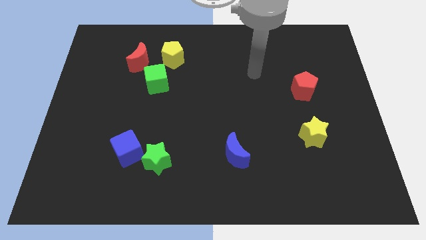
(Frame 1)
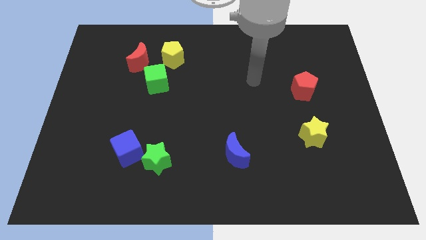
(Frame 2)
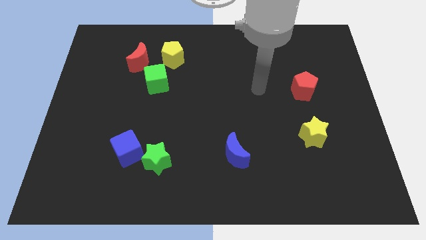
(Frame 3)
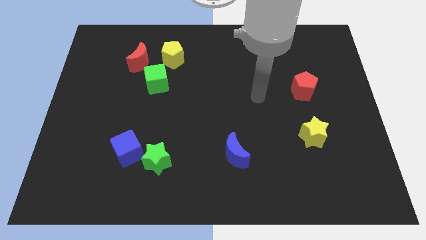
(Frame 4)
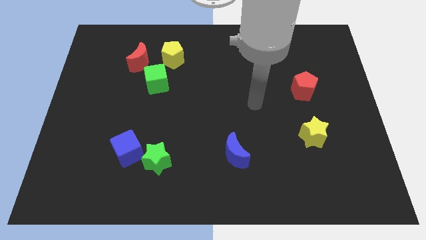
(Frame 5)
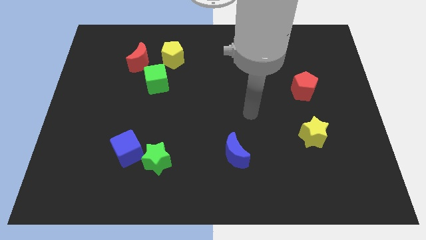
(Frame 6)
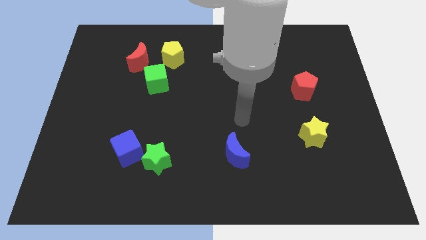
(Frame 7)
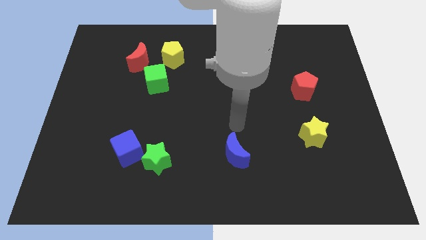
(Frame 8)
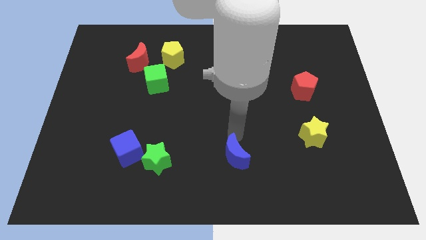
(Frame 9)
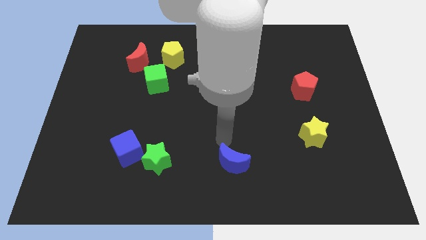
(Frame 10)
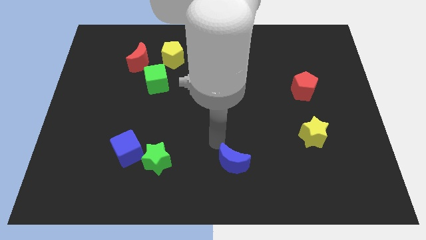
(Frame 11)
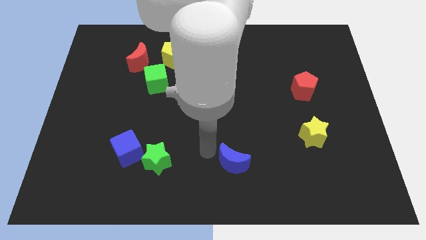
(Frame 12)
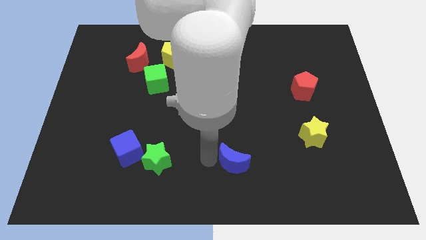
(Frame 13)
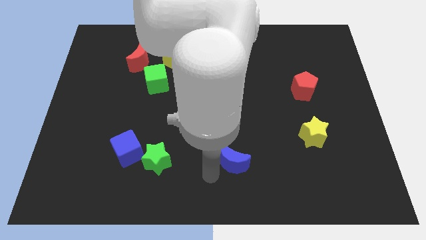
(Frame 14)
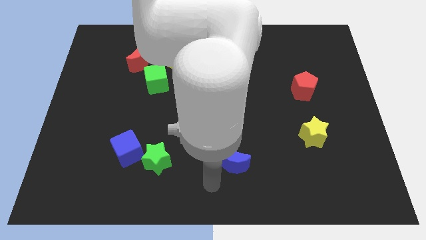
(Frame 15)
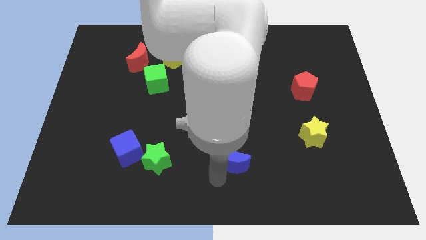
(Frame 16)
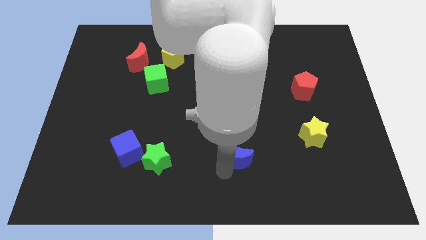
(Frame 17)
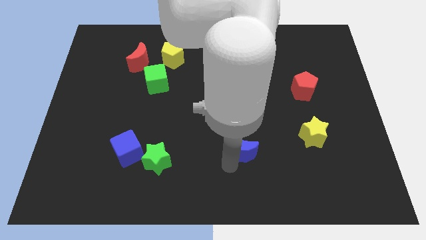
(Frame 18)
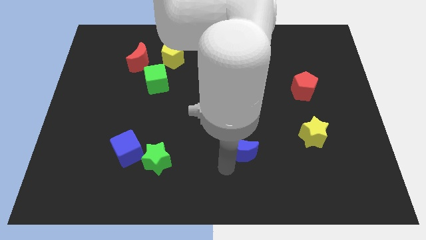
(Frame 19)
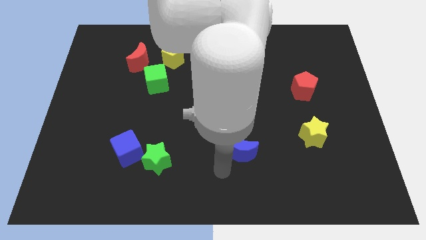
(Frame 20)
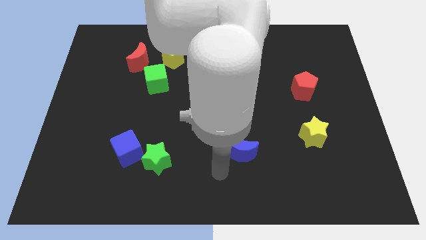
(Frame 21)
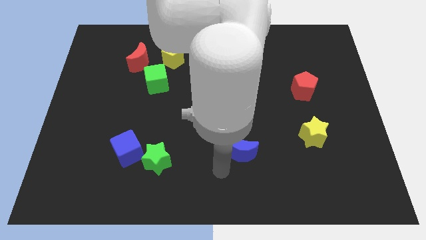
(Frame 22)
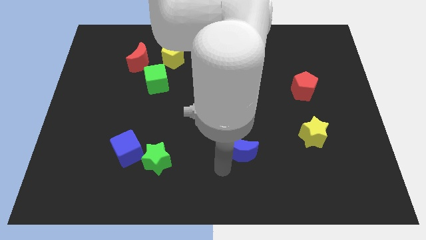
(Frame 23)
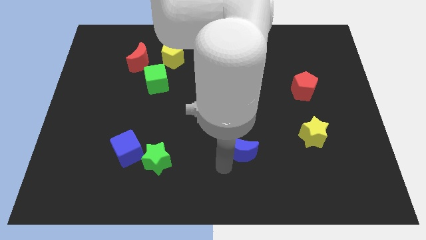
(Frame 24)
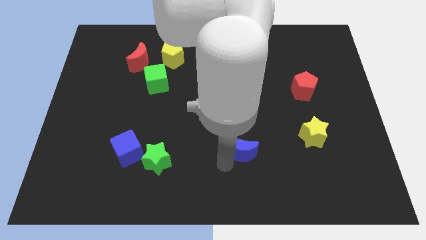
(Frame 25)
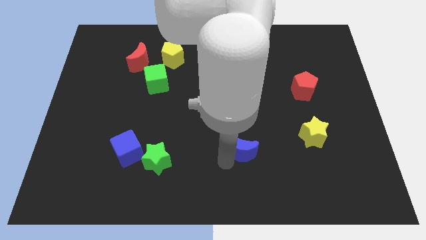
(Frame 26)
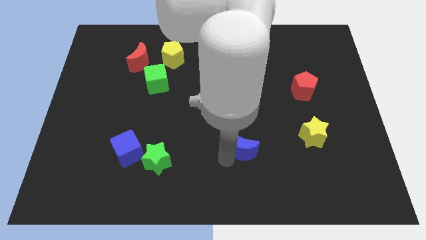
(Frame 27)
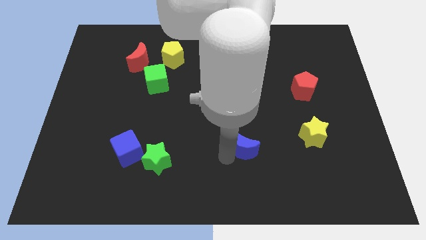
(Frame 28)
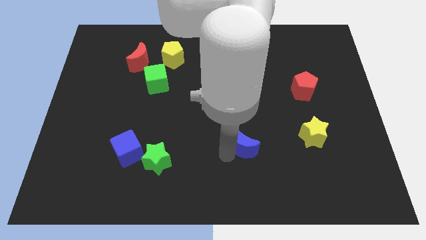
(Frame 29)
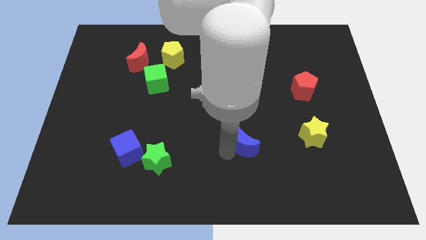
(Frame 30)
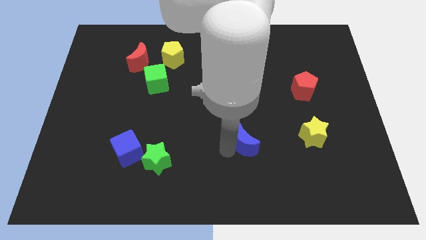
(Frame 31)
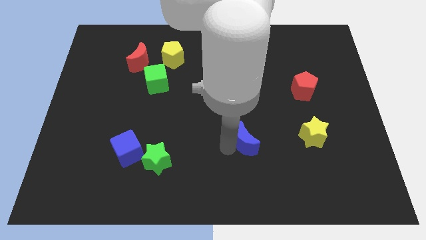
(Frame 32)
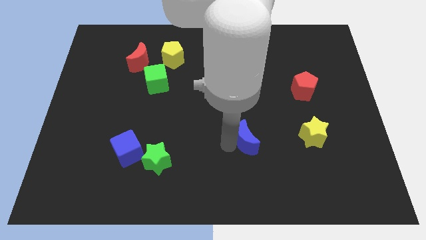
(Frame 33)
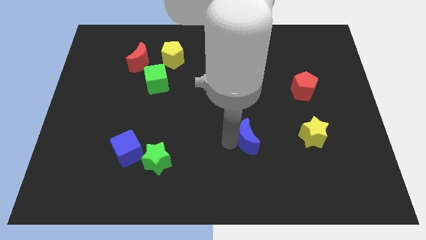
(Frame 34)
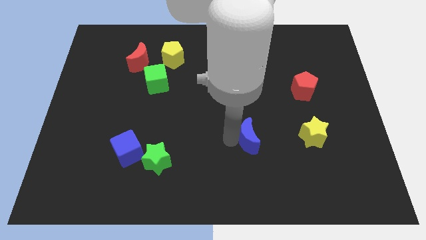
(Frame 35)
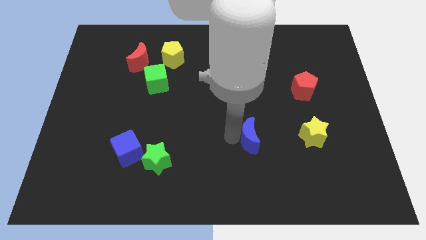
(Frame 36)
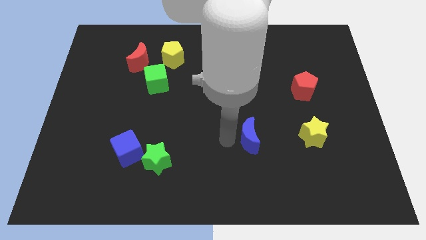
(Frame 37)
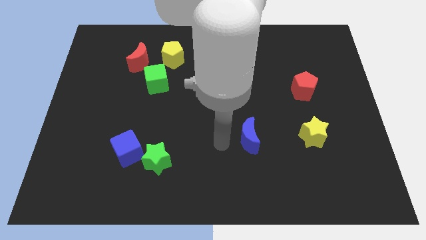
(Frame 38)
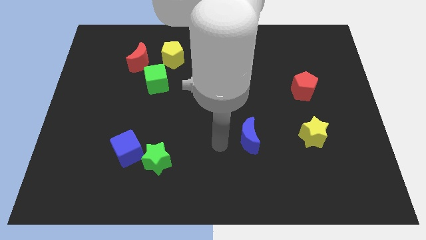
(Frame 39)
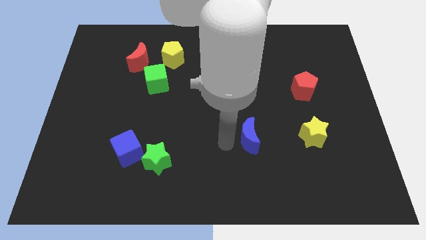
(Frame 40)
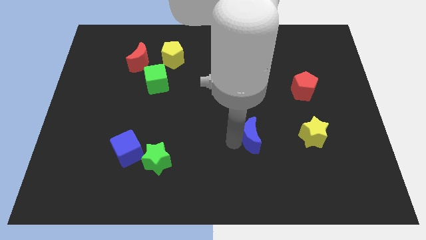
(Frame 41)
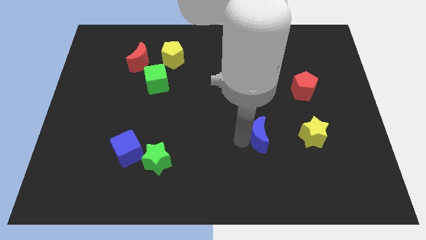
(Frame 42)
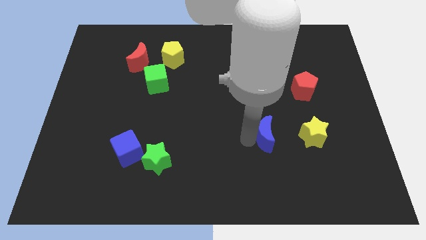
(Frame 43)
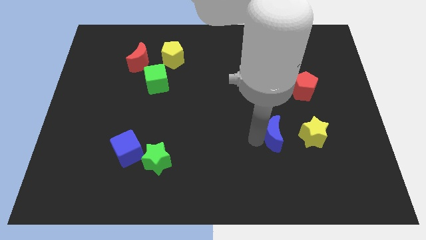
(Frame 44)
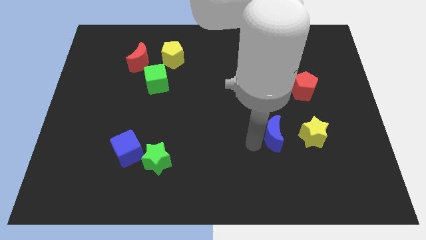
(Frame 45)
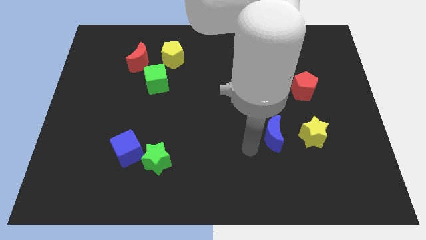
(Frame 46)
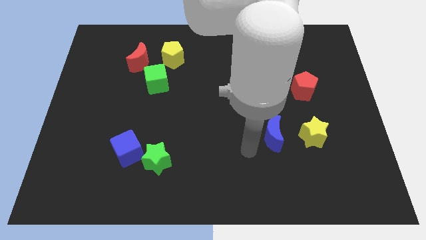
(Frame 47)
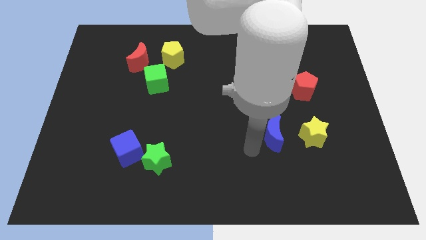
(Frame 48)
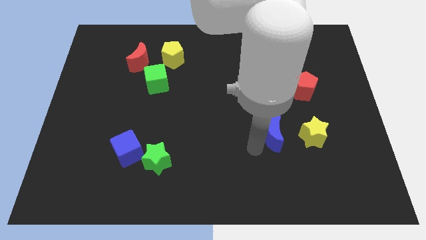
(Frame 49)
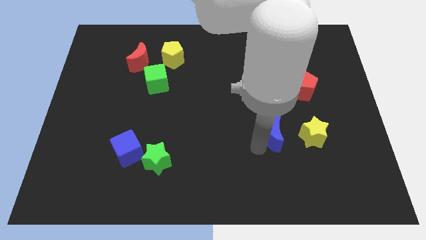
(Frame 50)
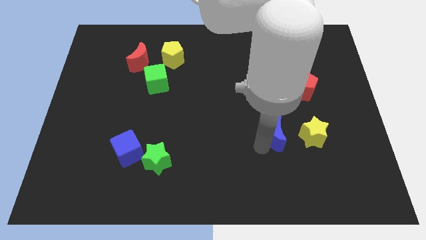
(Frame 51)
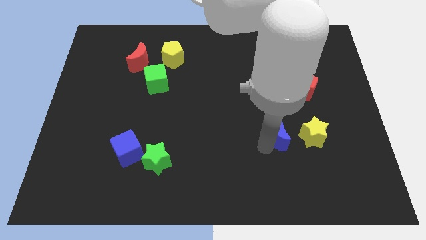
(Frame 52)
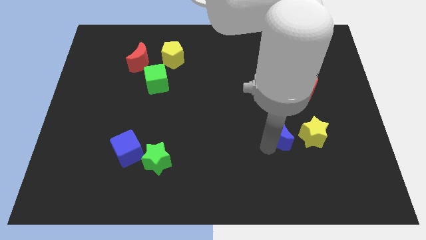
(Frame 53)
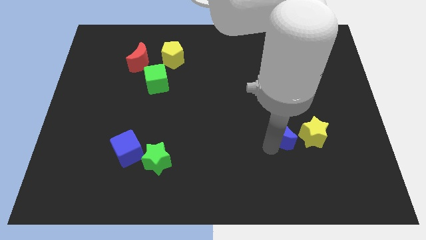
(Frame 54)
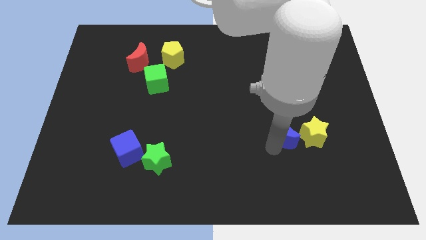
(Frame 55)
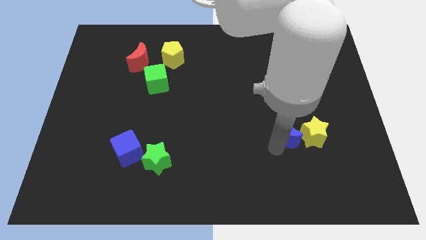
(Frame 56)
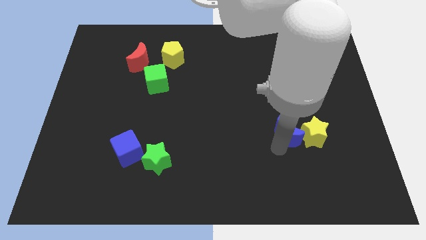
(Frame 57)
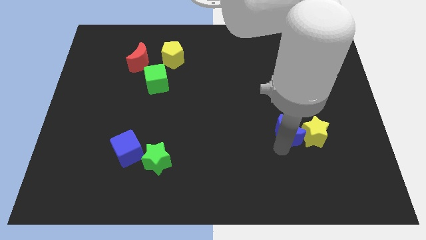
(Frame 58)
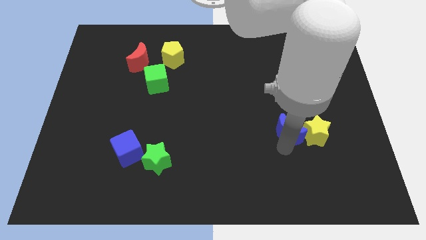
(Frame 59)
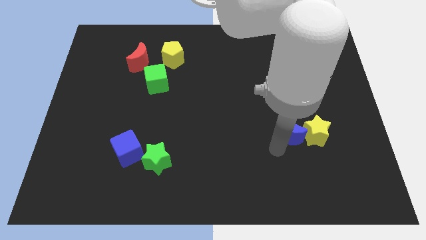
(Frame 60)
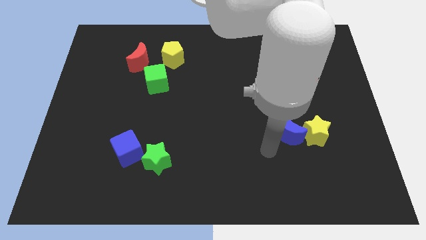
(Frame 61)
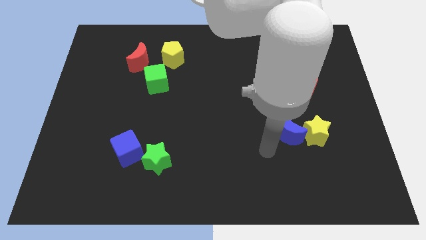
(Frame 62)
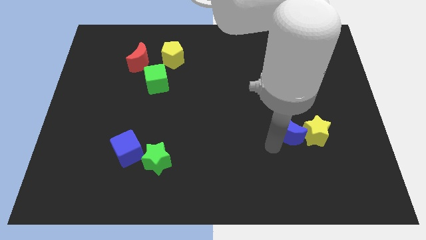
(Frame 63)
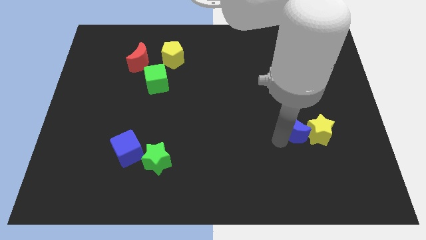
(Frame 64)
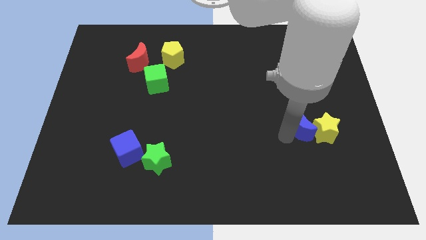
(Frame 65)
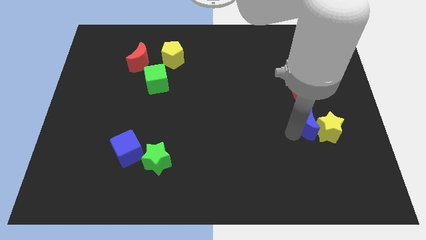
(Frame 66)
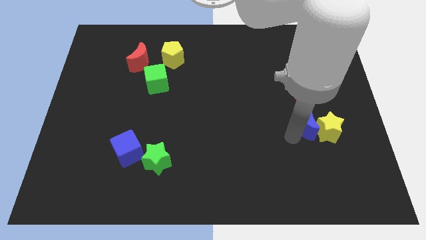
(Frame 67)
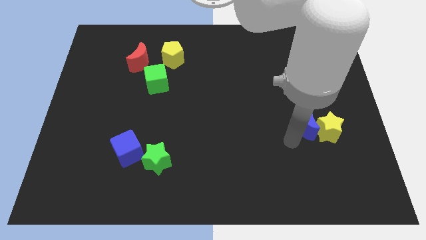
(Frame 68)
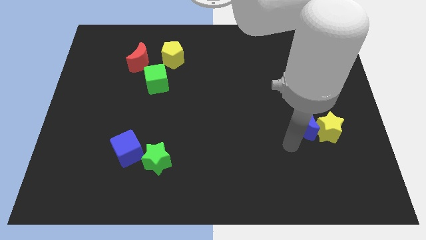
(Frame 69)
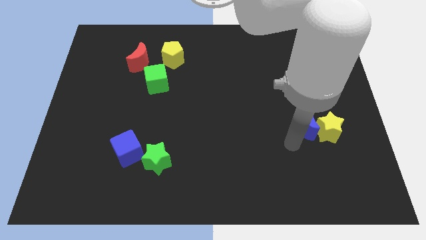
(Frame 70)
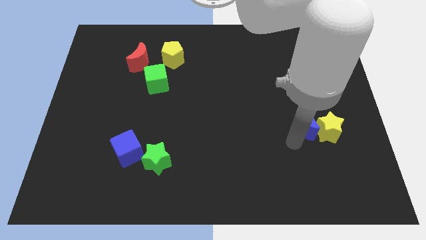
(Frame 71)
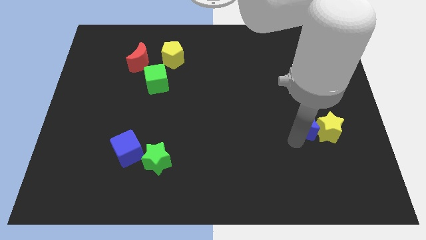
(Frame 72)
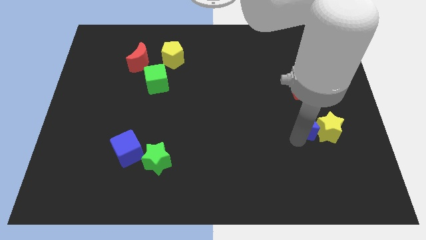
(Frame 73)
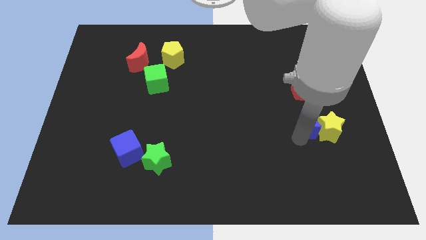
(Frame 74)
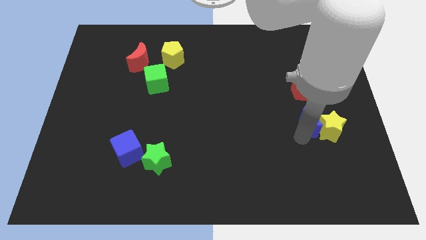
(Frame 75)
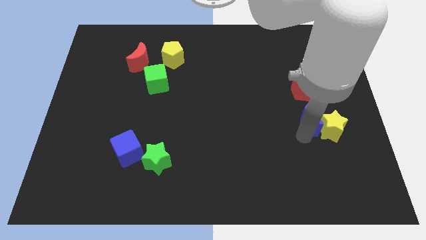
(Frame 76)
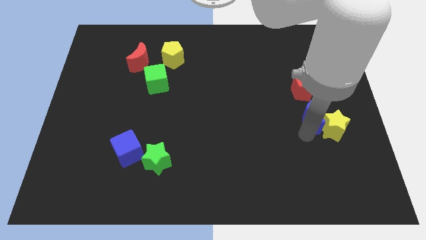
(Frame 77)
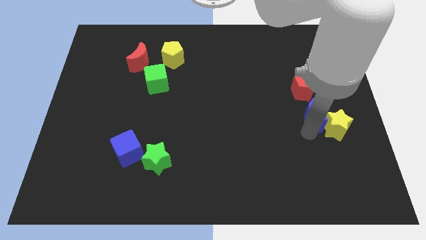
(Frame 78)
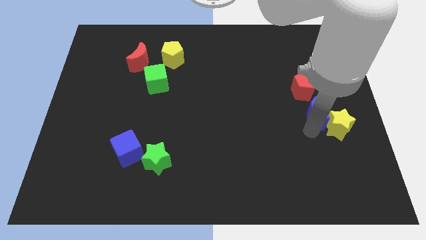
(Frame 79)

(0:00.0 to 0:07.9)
put the blue moon to the bottom right side of the red pentagon
